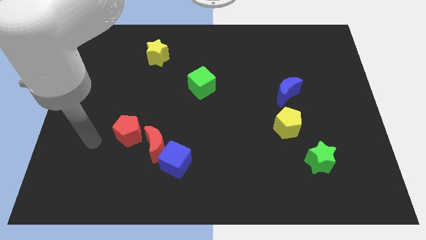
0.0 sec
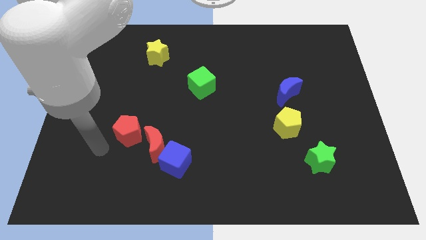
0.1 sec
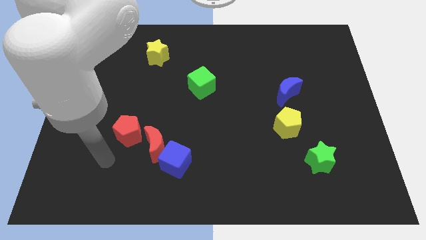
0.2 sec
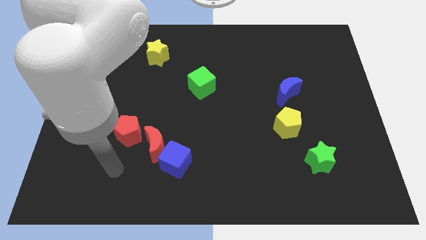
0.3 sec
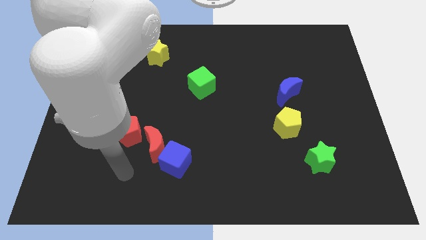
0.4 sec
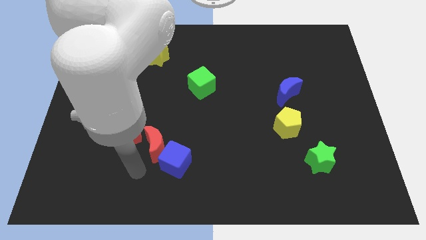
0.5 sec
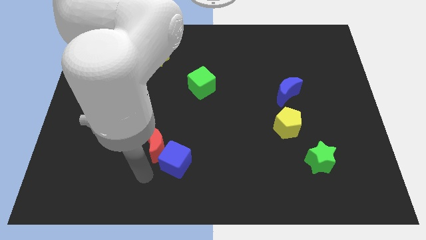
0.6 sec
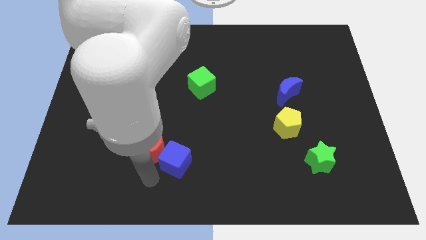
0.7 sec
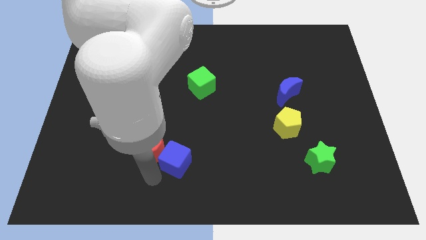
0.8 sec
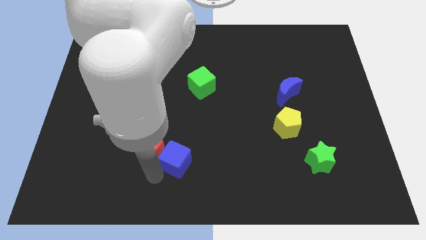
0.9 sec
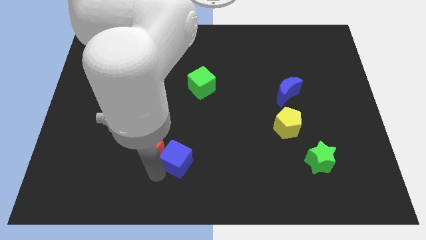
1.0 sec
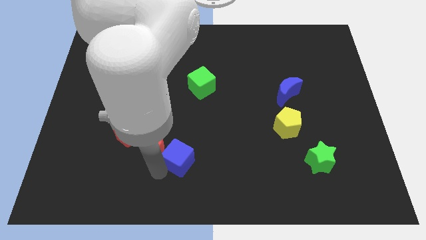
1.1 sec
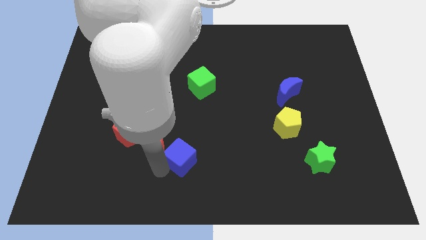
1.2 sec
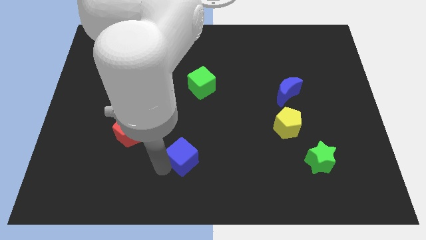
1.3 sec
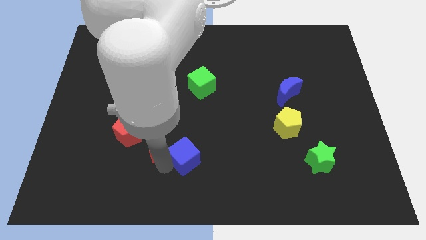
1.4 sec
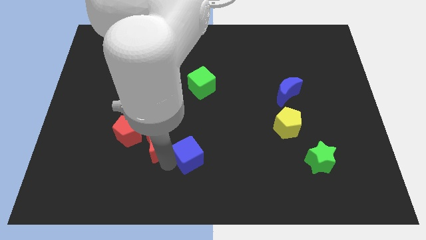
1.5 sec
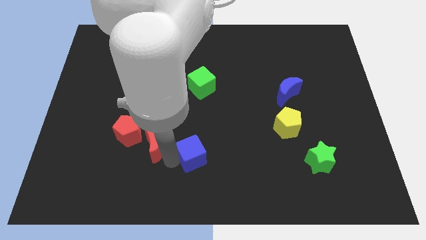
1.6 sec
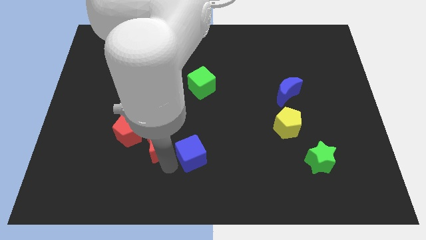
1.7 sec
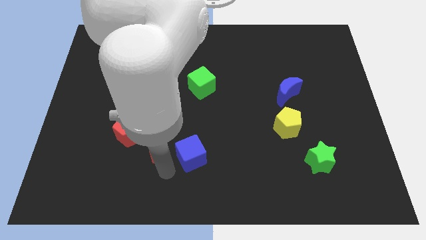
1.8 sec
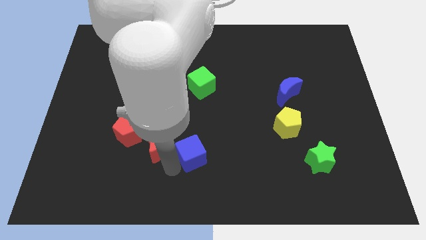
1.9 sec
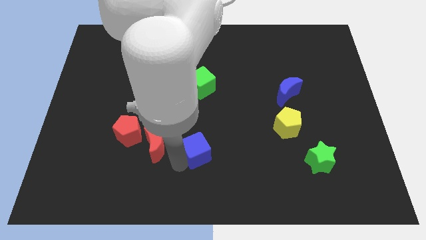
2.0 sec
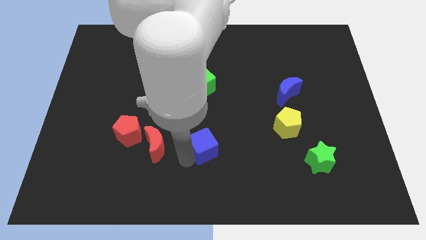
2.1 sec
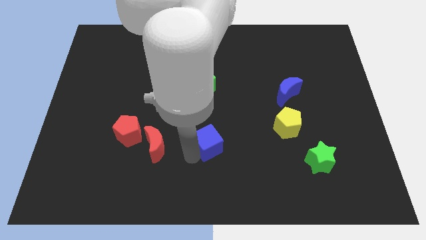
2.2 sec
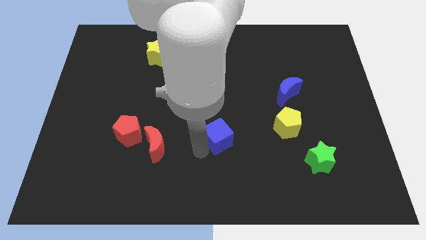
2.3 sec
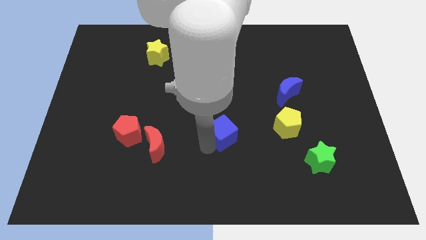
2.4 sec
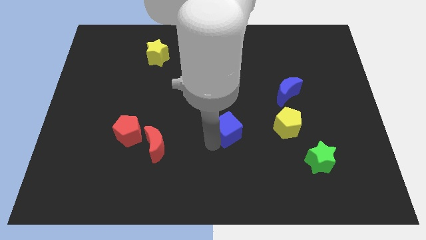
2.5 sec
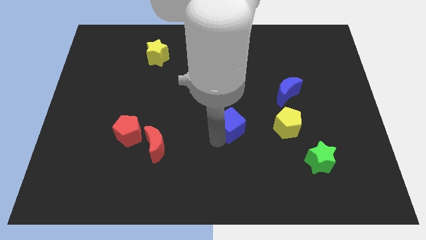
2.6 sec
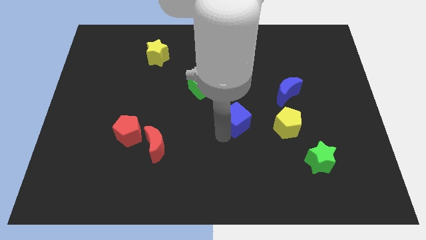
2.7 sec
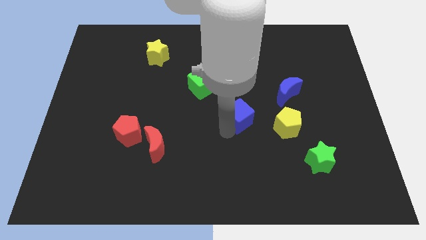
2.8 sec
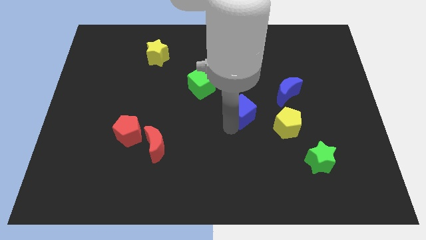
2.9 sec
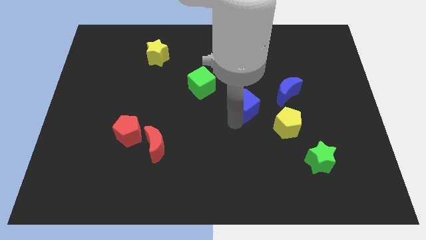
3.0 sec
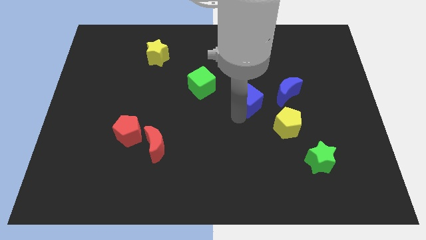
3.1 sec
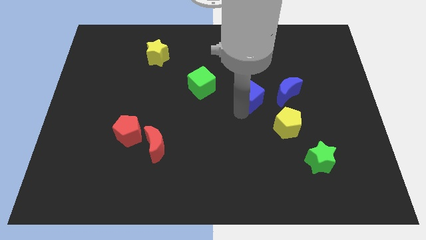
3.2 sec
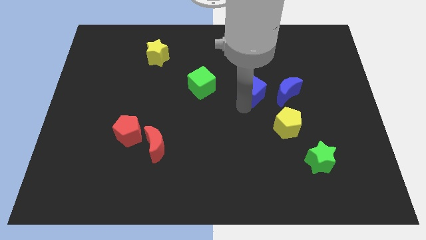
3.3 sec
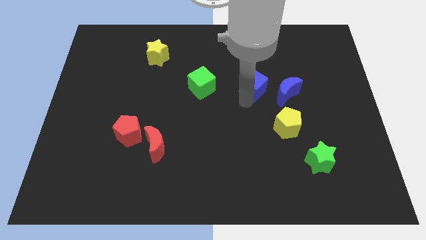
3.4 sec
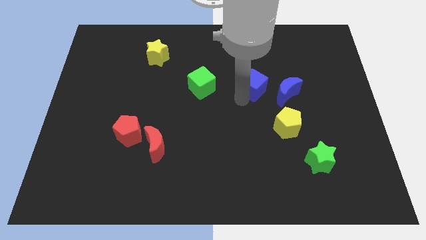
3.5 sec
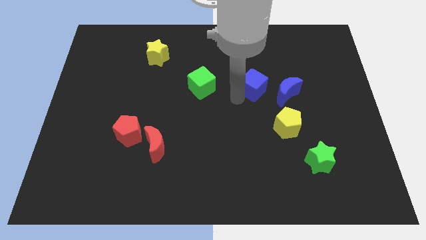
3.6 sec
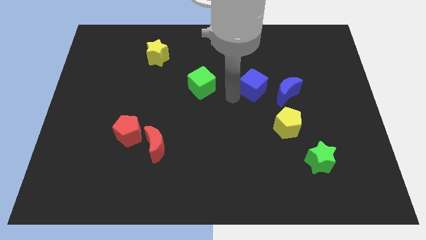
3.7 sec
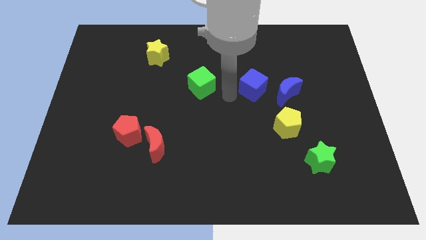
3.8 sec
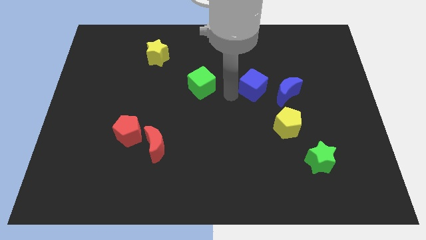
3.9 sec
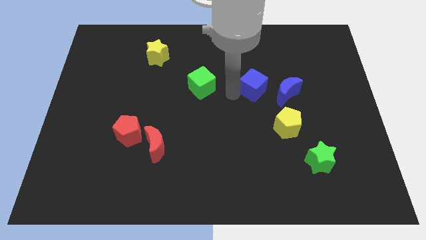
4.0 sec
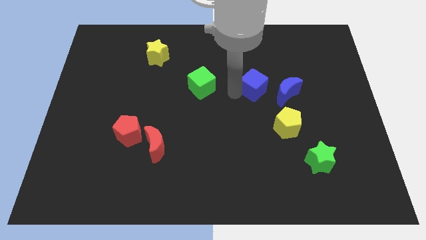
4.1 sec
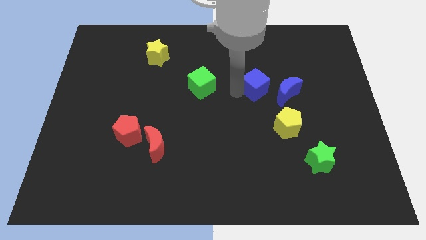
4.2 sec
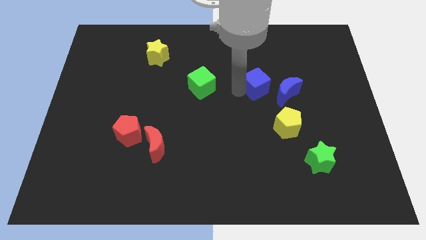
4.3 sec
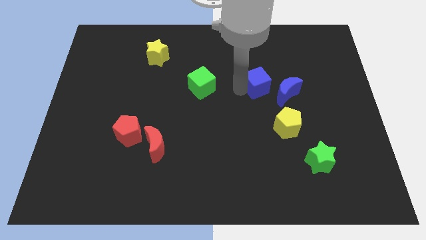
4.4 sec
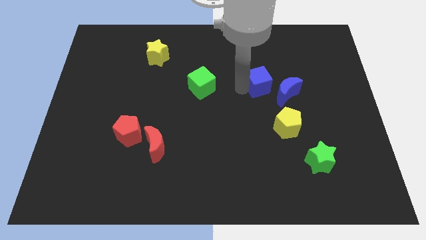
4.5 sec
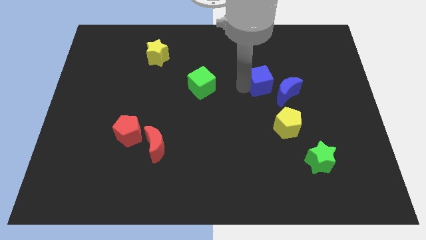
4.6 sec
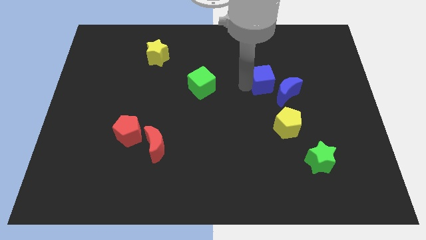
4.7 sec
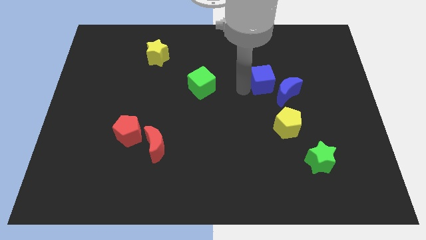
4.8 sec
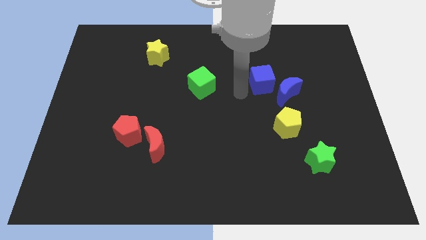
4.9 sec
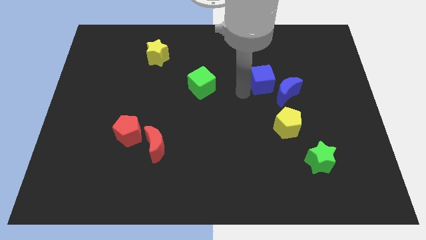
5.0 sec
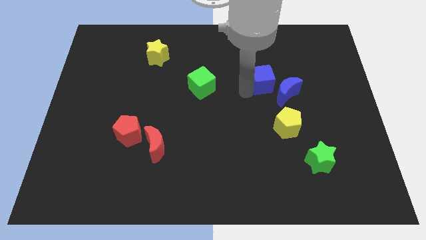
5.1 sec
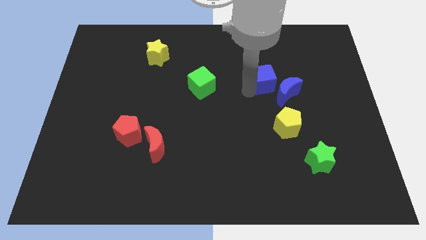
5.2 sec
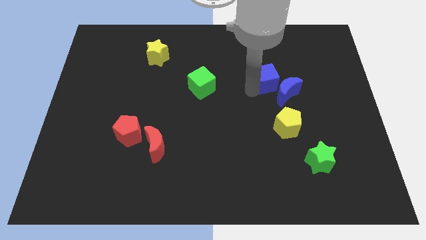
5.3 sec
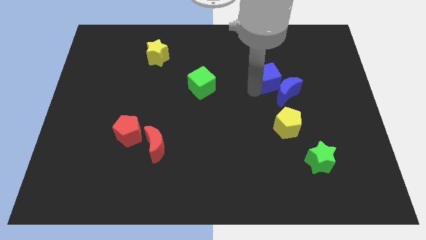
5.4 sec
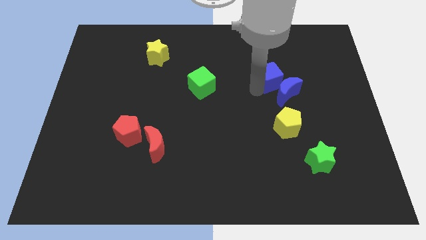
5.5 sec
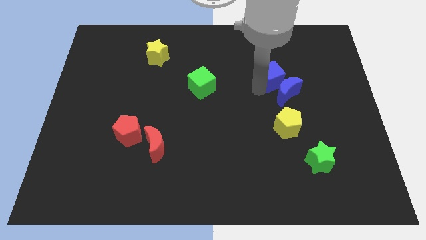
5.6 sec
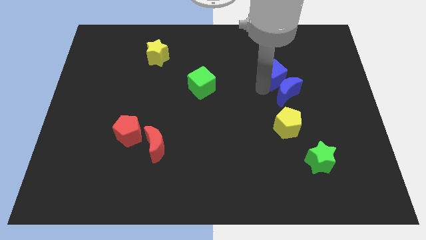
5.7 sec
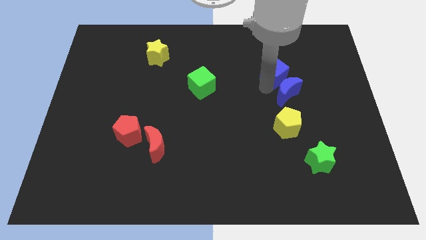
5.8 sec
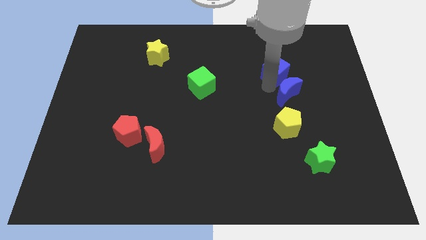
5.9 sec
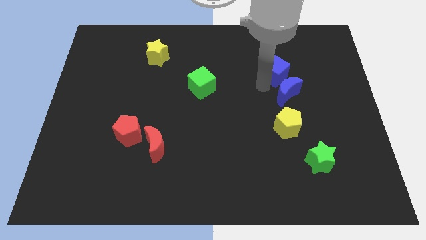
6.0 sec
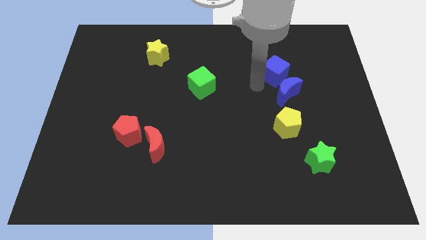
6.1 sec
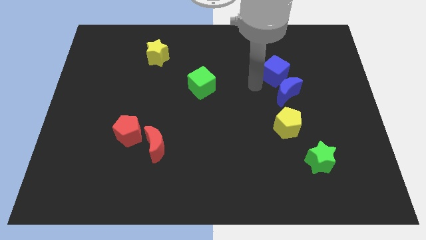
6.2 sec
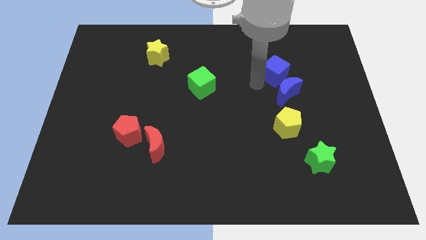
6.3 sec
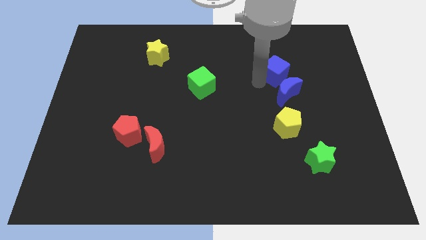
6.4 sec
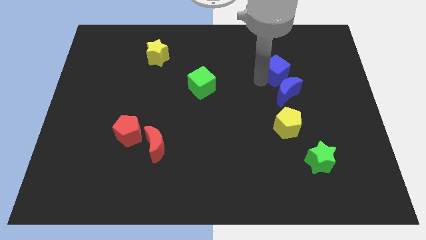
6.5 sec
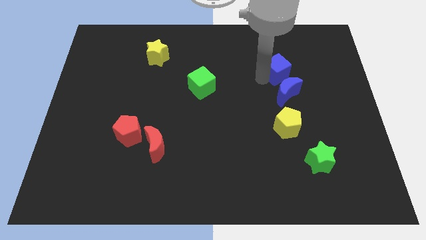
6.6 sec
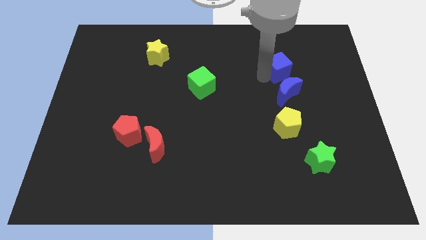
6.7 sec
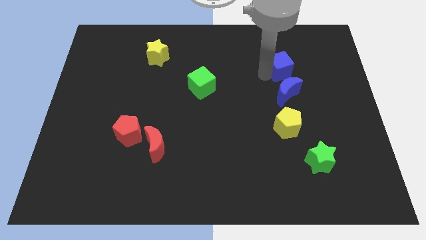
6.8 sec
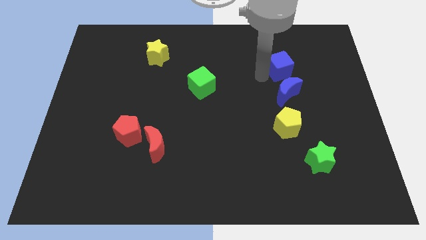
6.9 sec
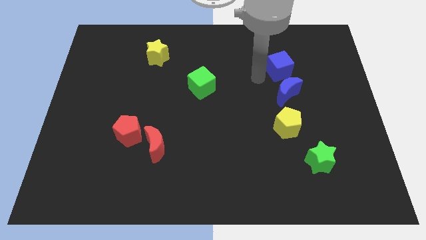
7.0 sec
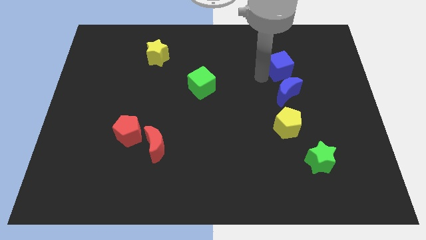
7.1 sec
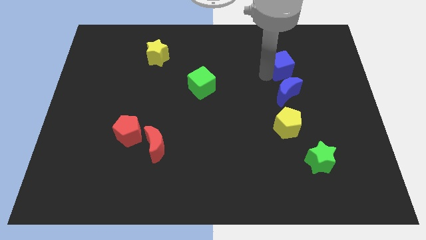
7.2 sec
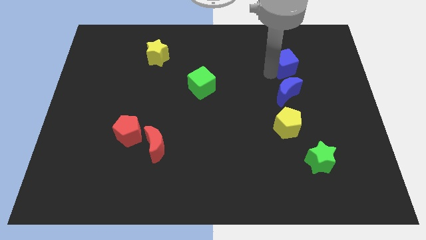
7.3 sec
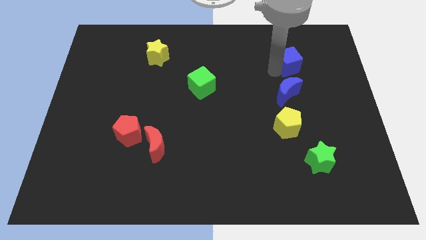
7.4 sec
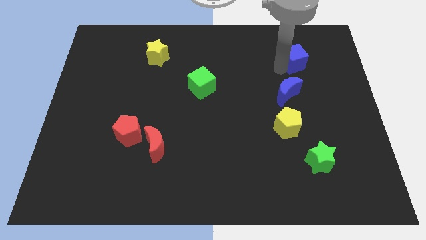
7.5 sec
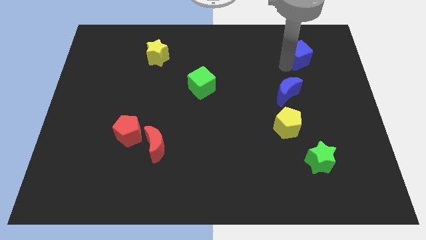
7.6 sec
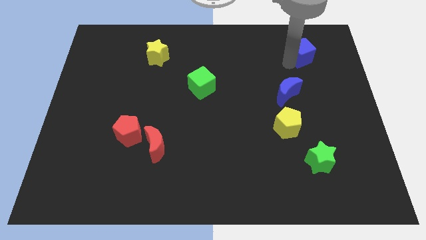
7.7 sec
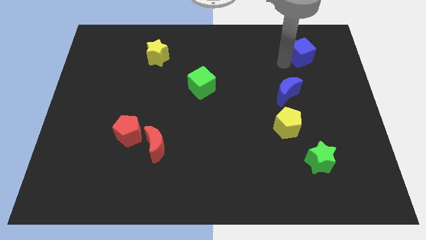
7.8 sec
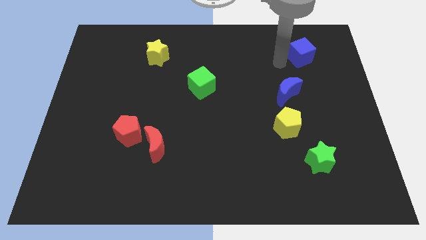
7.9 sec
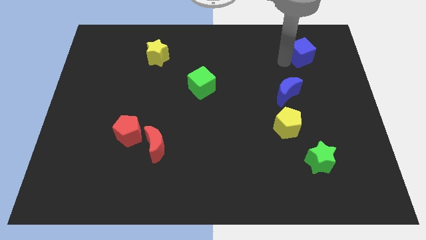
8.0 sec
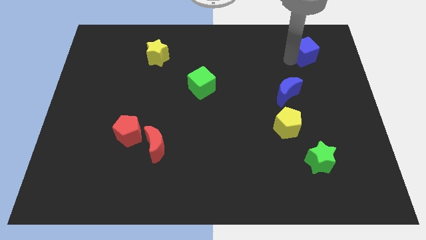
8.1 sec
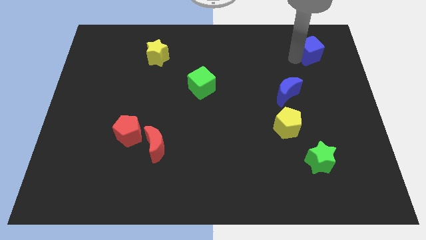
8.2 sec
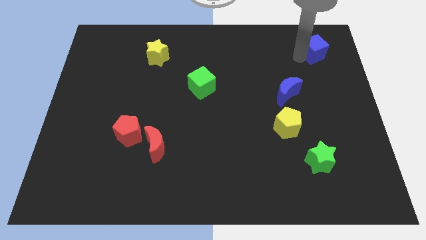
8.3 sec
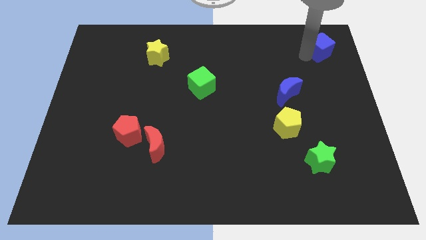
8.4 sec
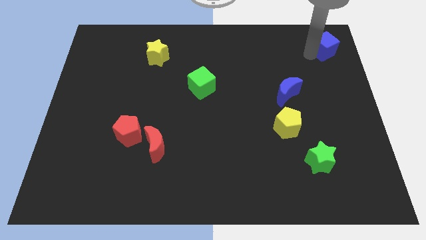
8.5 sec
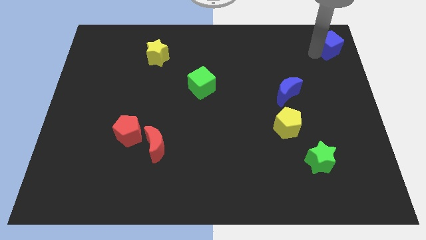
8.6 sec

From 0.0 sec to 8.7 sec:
put the blue cube to the top right
